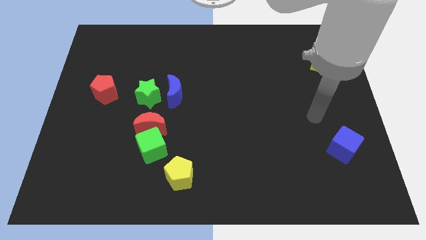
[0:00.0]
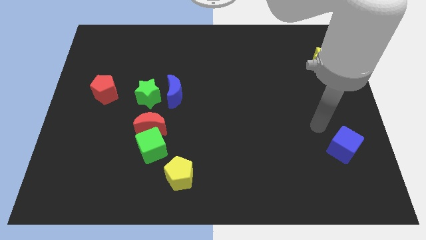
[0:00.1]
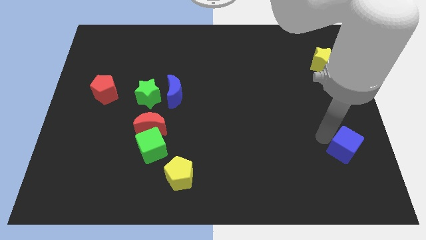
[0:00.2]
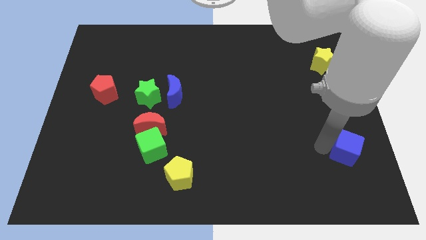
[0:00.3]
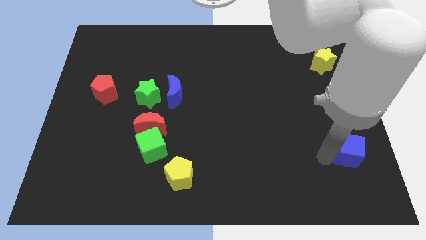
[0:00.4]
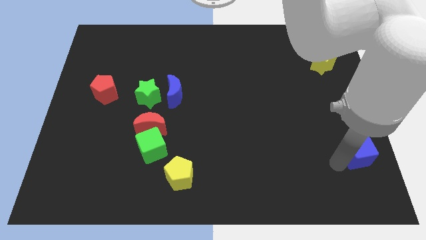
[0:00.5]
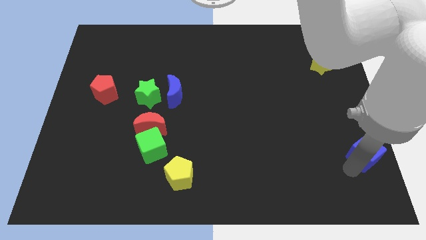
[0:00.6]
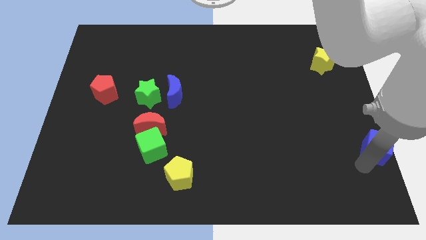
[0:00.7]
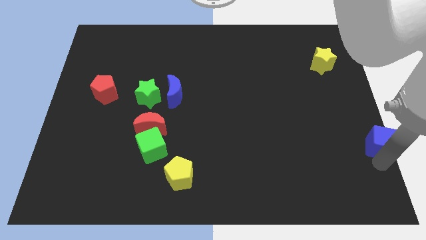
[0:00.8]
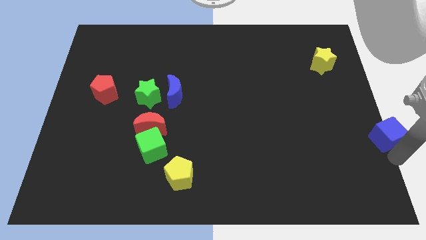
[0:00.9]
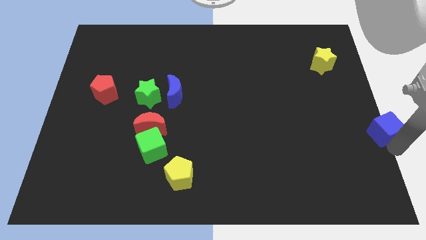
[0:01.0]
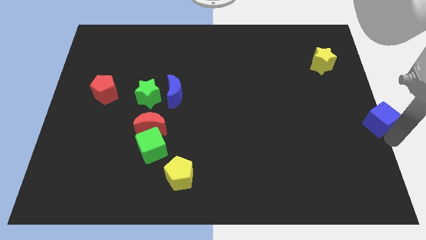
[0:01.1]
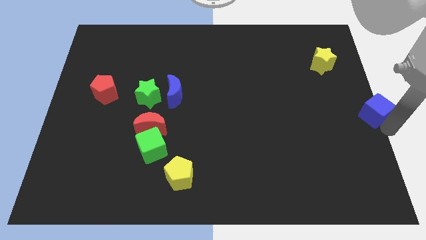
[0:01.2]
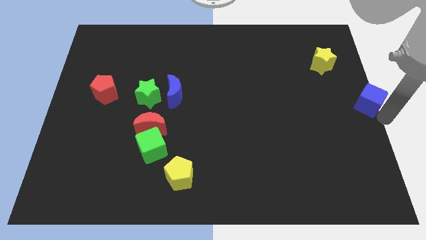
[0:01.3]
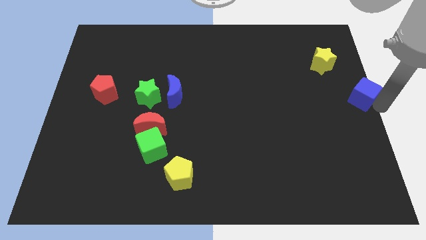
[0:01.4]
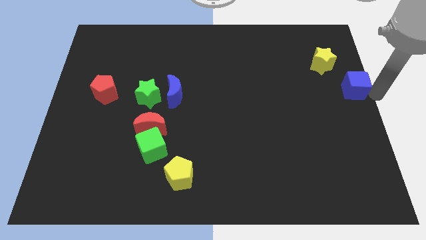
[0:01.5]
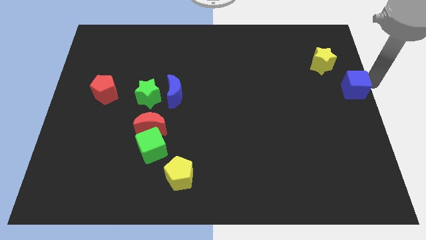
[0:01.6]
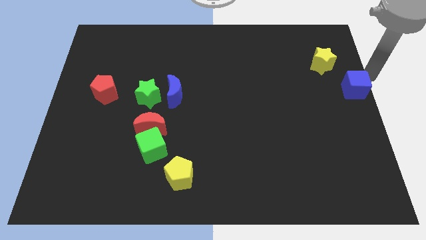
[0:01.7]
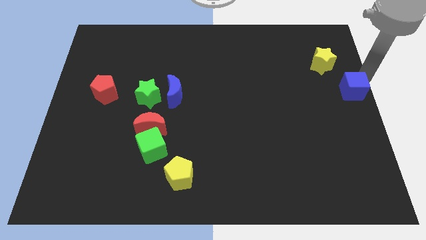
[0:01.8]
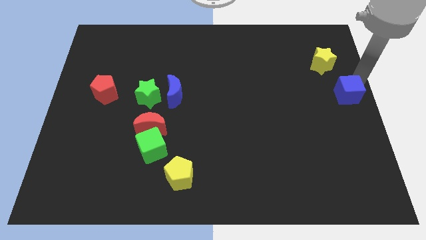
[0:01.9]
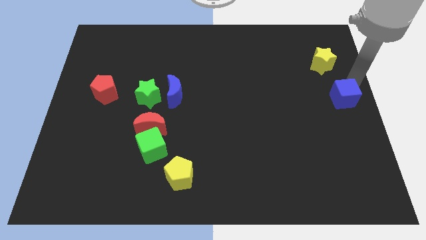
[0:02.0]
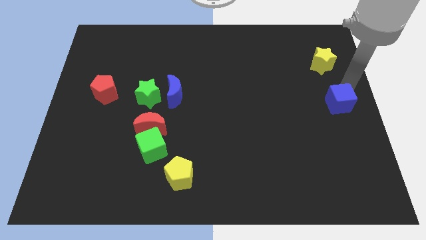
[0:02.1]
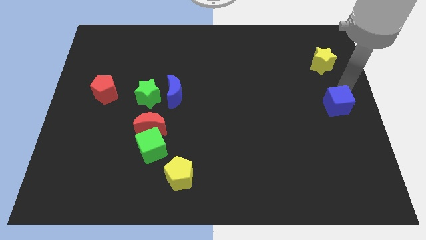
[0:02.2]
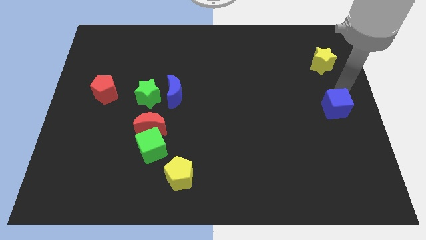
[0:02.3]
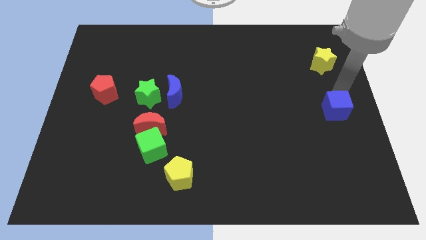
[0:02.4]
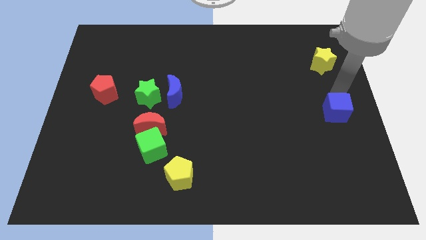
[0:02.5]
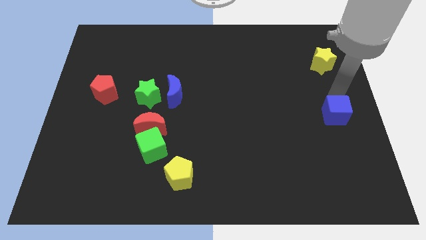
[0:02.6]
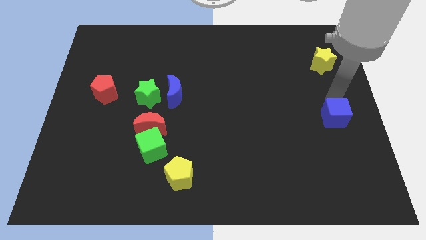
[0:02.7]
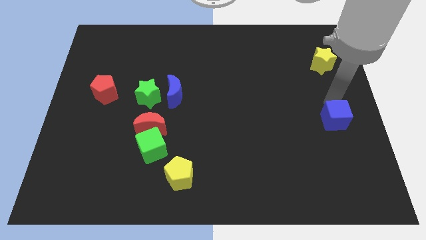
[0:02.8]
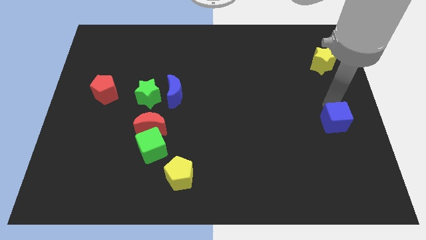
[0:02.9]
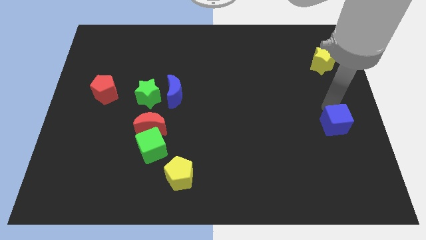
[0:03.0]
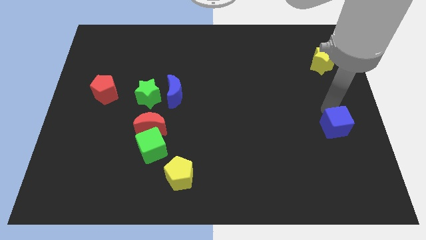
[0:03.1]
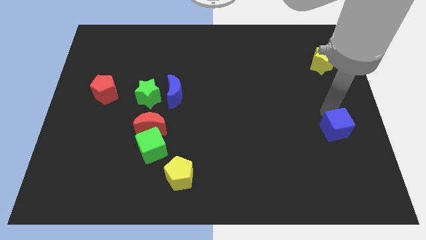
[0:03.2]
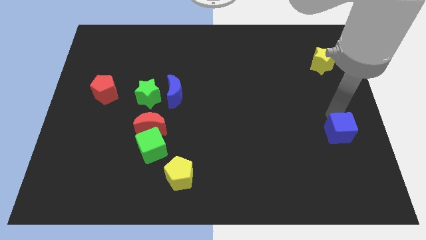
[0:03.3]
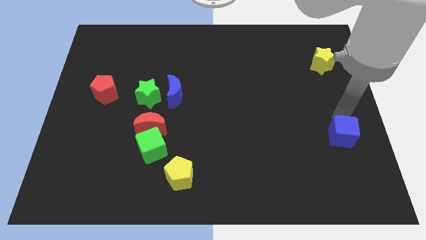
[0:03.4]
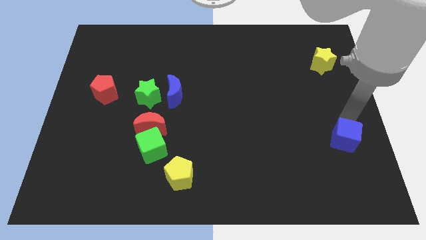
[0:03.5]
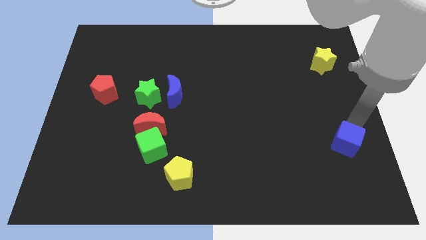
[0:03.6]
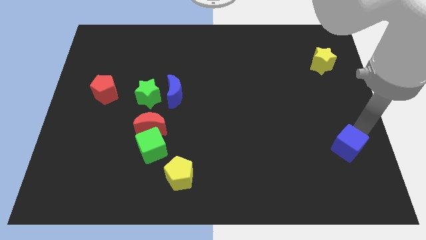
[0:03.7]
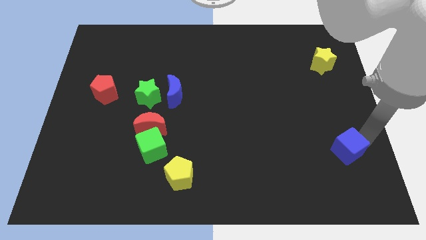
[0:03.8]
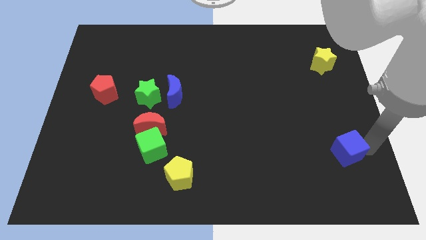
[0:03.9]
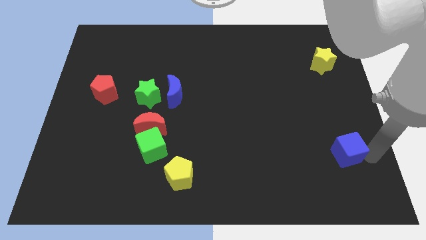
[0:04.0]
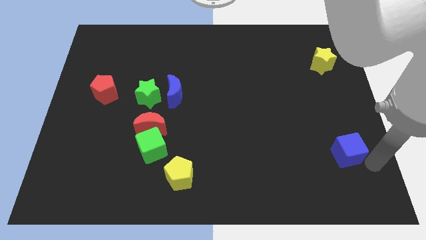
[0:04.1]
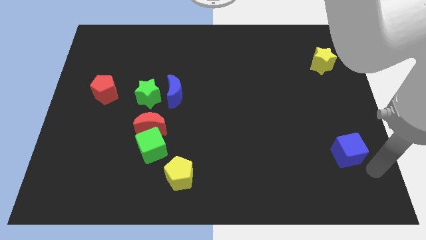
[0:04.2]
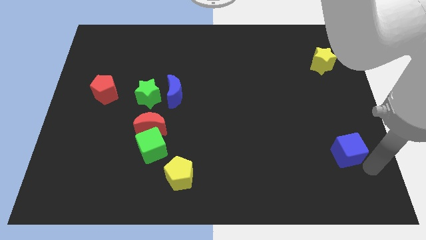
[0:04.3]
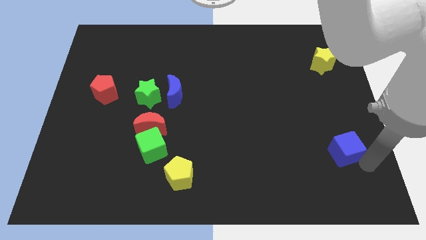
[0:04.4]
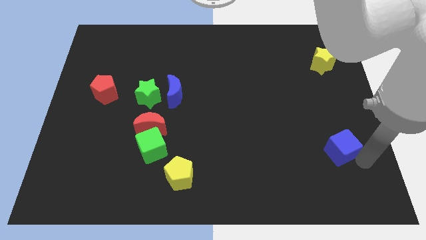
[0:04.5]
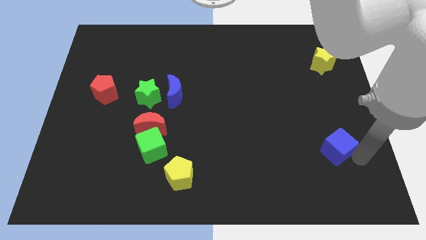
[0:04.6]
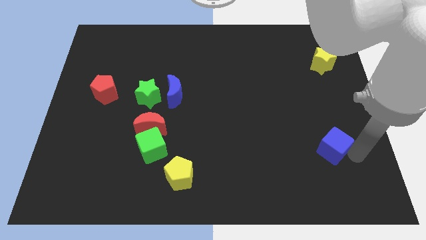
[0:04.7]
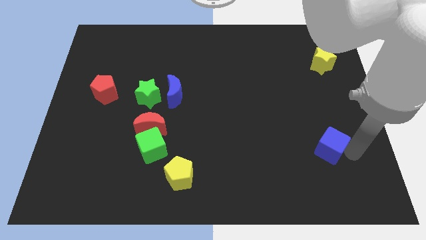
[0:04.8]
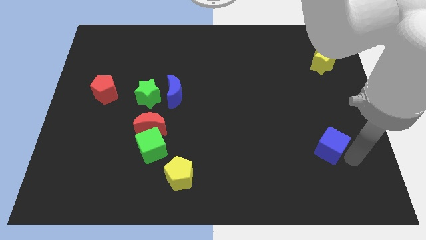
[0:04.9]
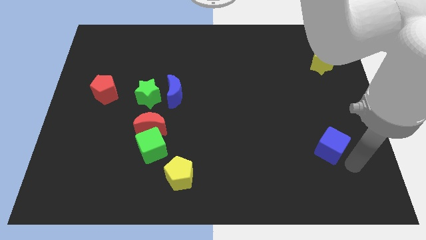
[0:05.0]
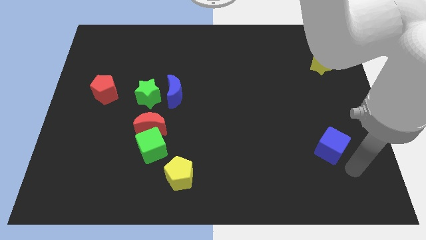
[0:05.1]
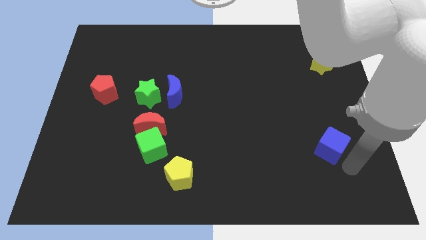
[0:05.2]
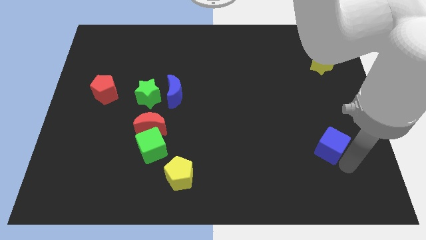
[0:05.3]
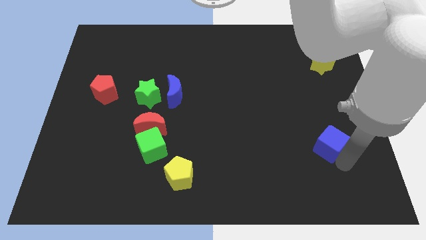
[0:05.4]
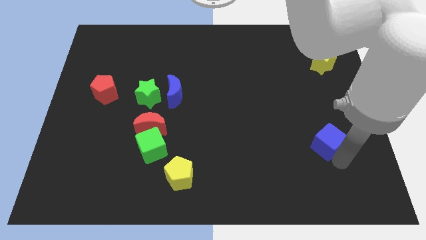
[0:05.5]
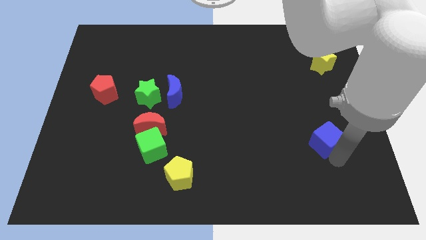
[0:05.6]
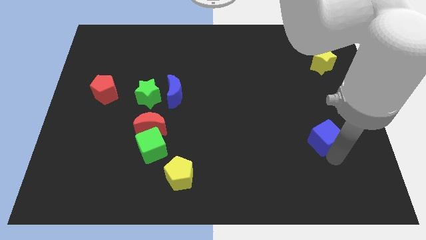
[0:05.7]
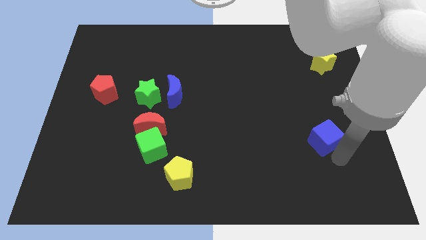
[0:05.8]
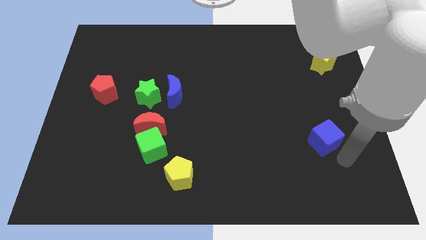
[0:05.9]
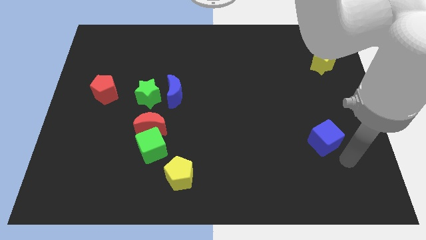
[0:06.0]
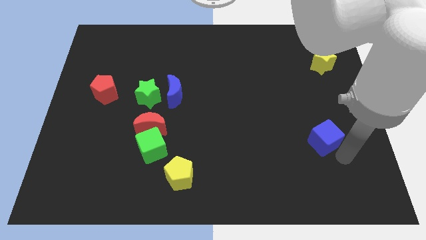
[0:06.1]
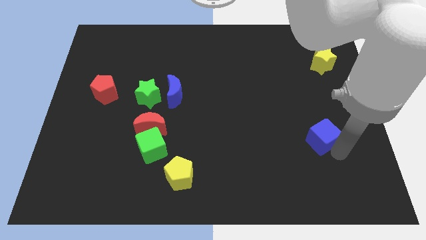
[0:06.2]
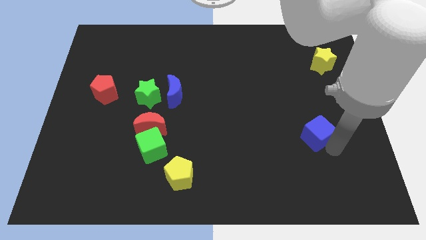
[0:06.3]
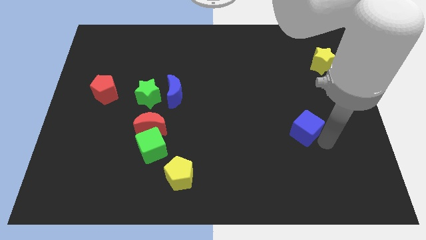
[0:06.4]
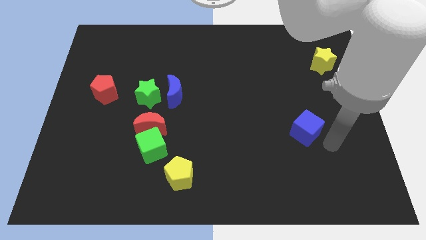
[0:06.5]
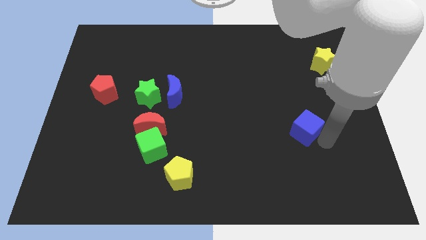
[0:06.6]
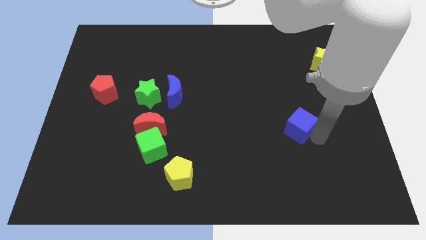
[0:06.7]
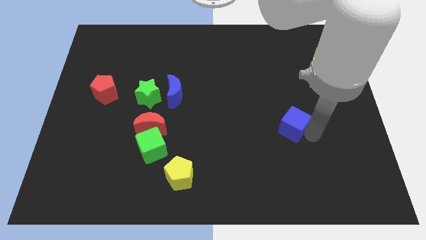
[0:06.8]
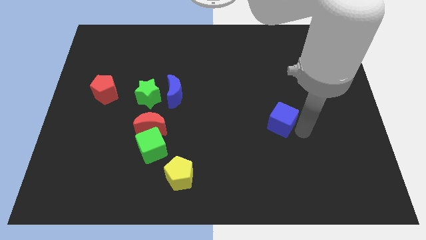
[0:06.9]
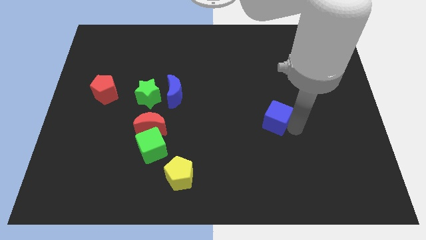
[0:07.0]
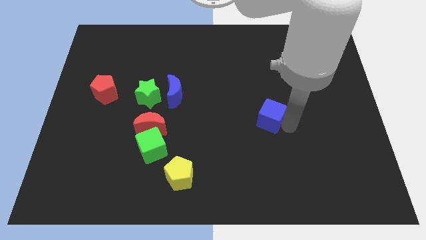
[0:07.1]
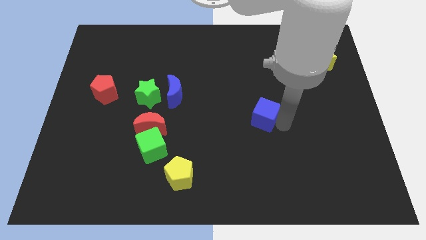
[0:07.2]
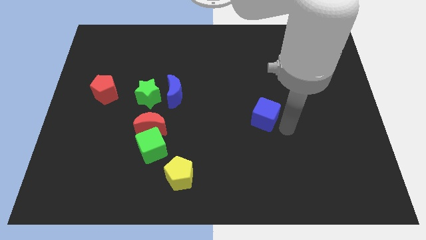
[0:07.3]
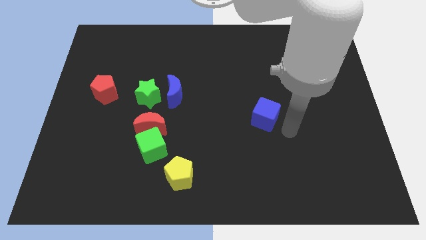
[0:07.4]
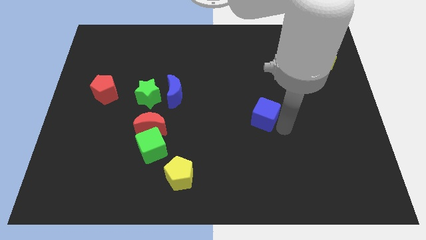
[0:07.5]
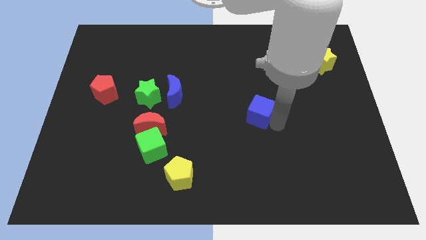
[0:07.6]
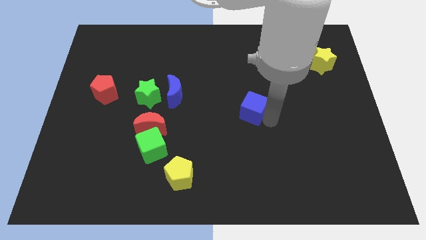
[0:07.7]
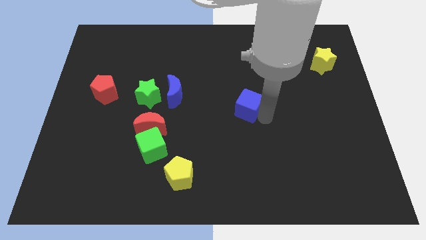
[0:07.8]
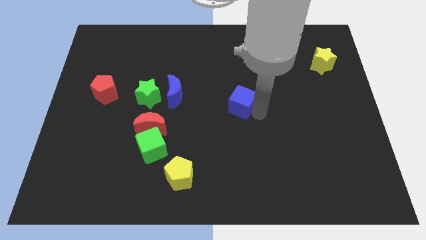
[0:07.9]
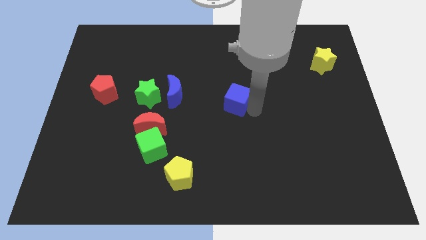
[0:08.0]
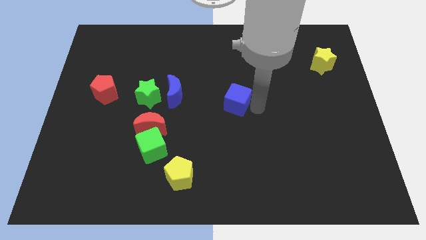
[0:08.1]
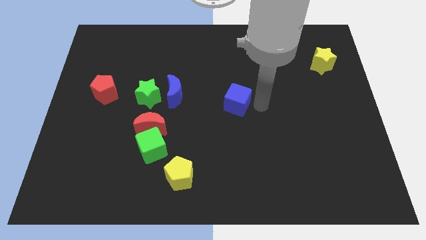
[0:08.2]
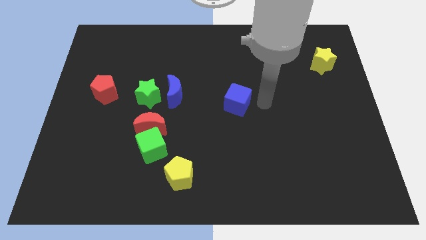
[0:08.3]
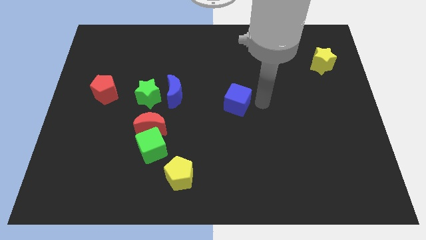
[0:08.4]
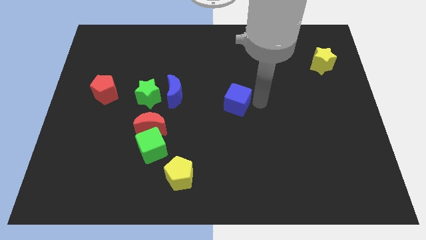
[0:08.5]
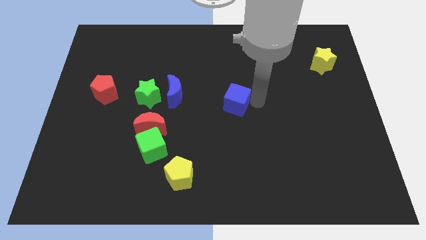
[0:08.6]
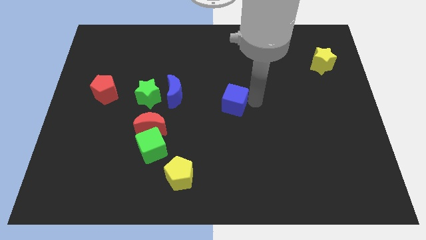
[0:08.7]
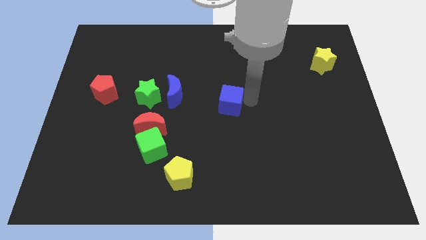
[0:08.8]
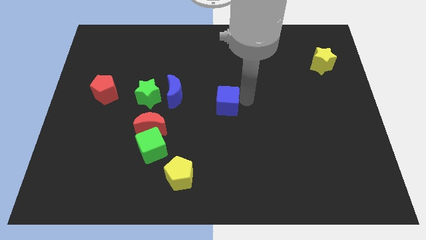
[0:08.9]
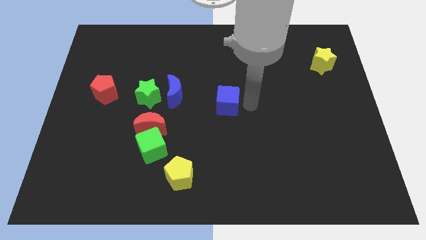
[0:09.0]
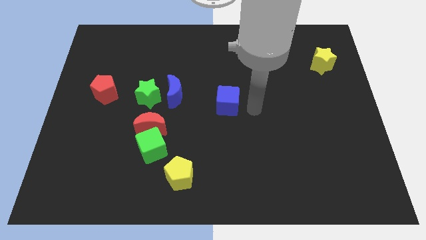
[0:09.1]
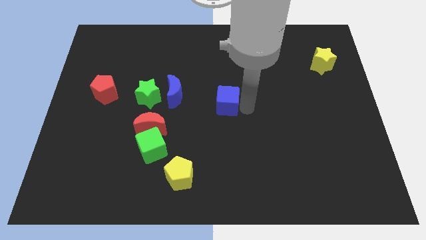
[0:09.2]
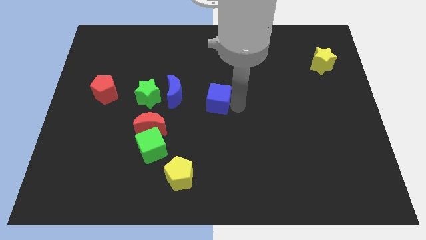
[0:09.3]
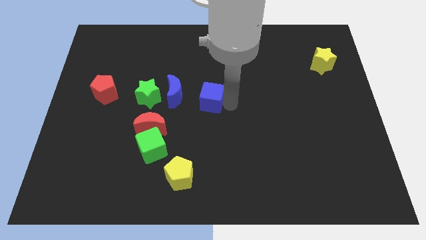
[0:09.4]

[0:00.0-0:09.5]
push the blue cube right of the green star
